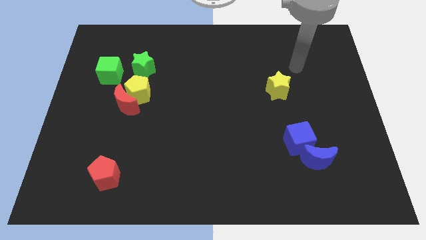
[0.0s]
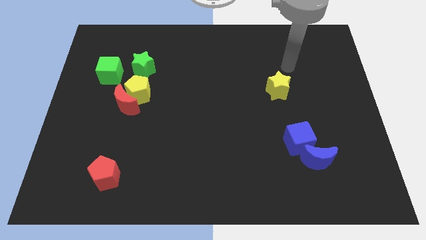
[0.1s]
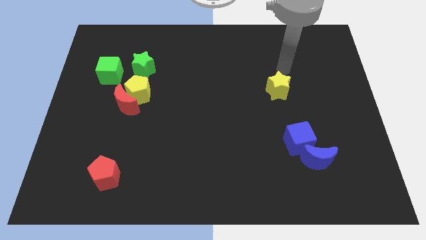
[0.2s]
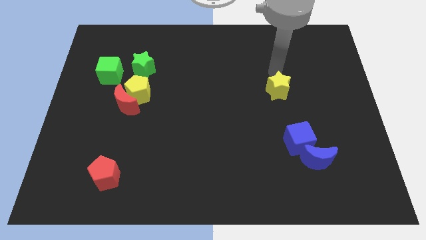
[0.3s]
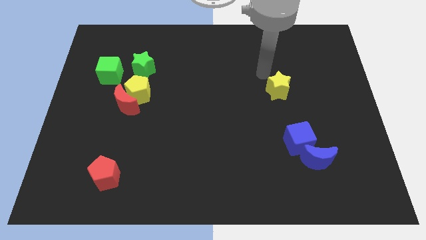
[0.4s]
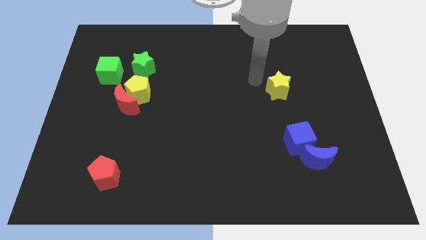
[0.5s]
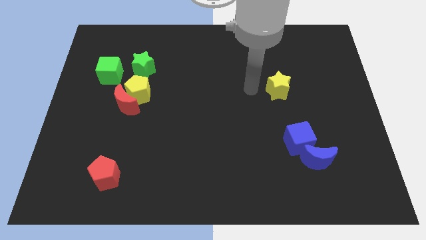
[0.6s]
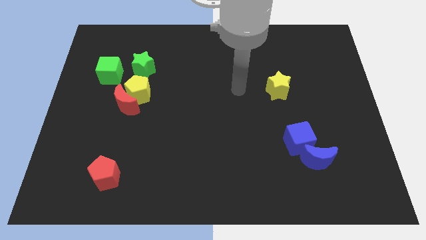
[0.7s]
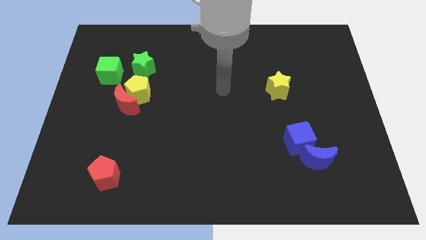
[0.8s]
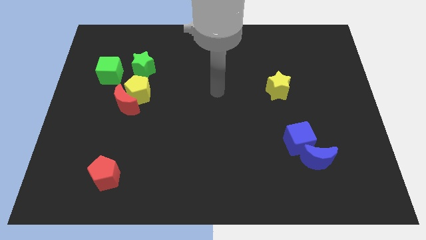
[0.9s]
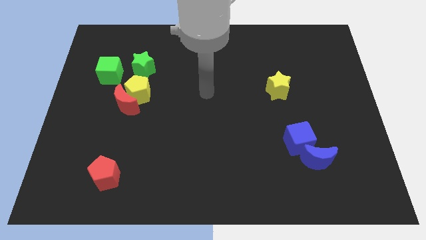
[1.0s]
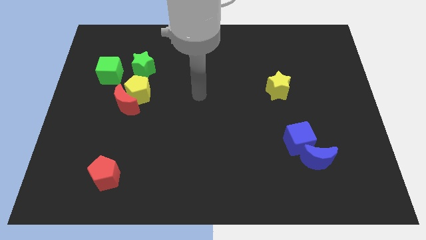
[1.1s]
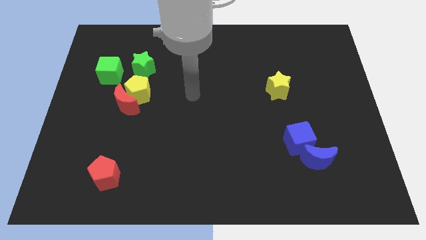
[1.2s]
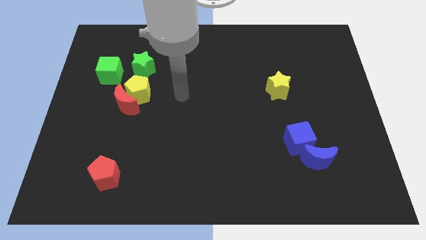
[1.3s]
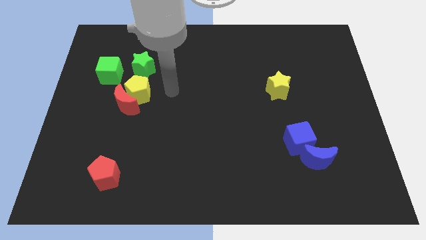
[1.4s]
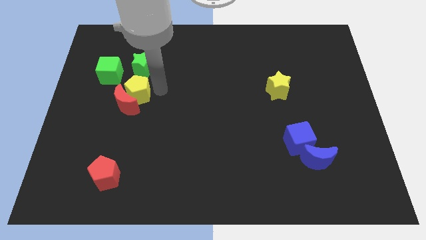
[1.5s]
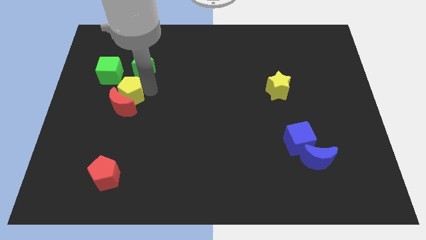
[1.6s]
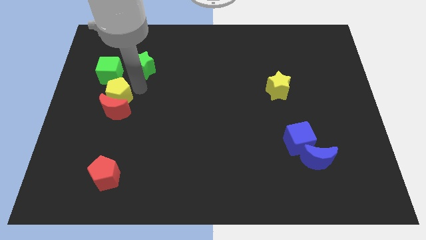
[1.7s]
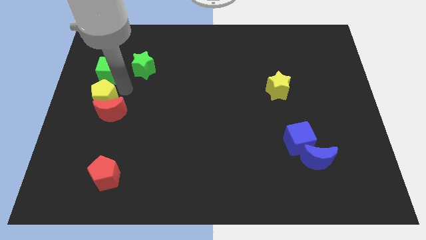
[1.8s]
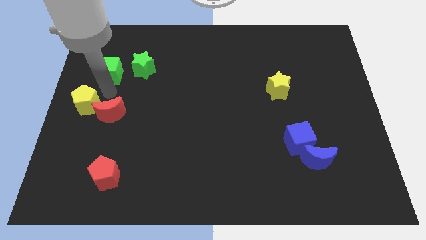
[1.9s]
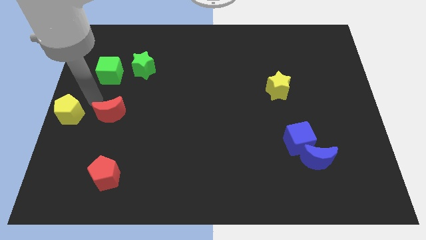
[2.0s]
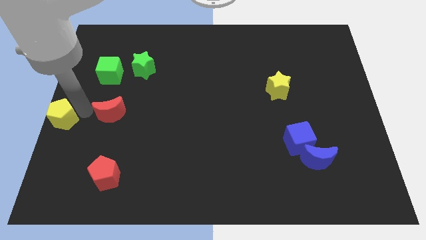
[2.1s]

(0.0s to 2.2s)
move the red moon away from the yellow pentagon

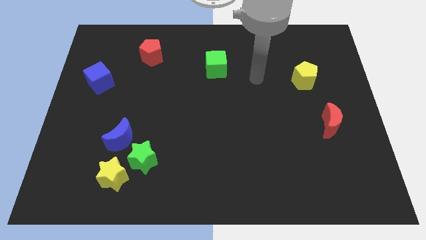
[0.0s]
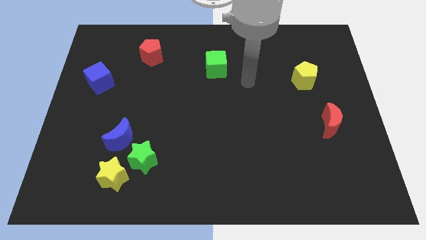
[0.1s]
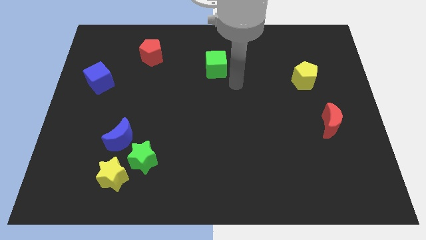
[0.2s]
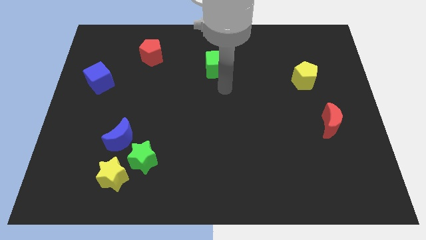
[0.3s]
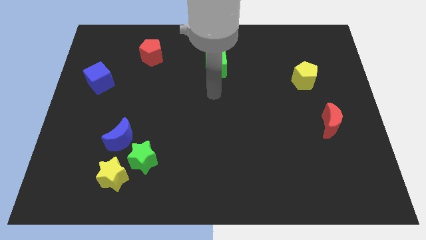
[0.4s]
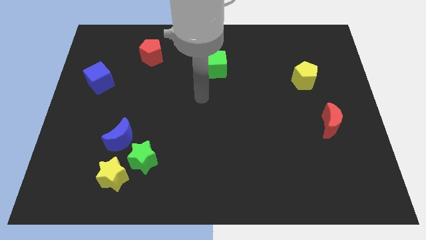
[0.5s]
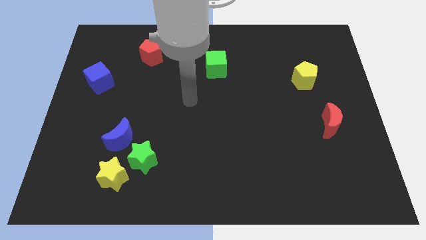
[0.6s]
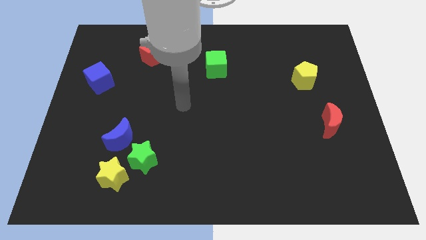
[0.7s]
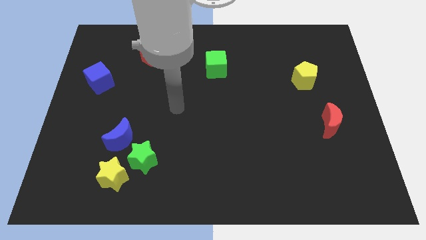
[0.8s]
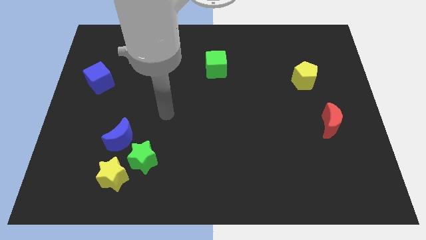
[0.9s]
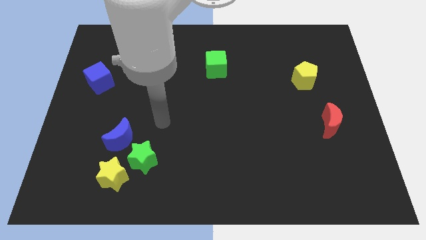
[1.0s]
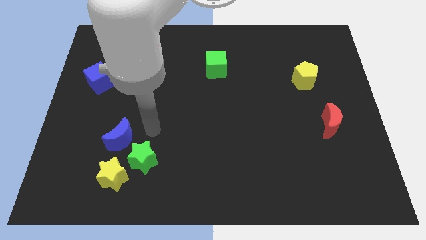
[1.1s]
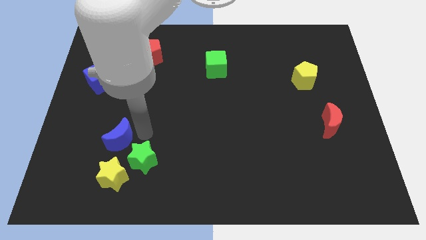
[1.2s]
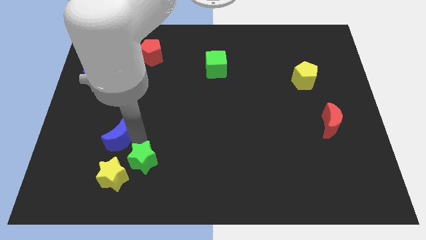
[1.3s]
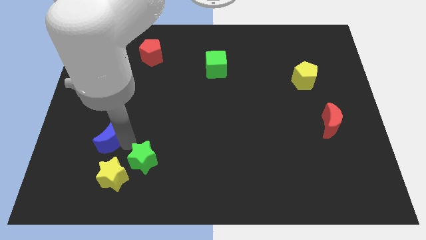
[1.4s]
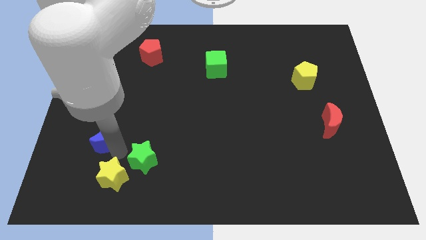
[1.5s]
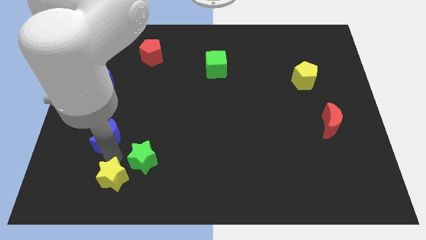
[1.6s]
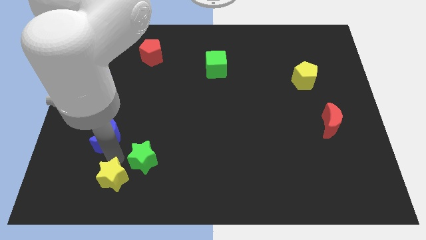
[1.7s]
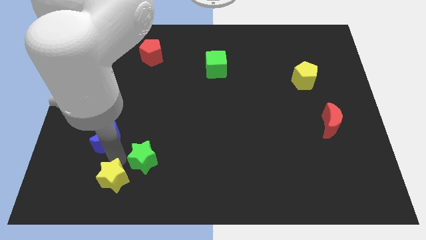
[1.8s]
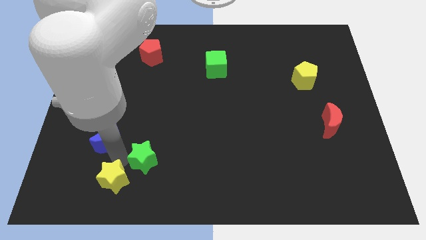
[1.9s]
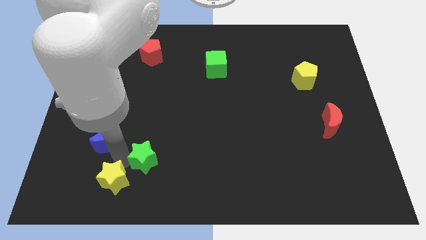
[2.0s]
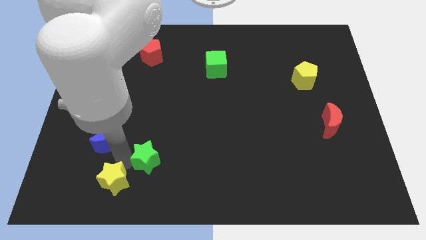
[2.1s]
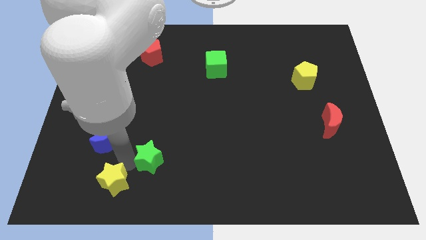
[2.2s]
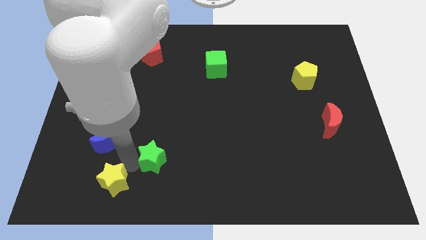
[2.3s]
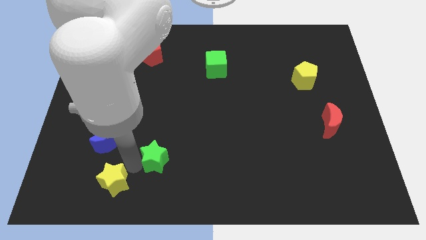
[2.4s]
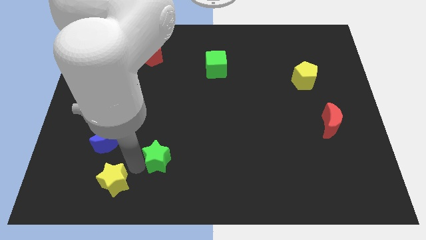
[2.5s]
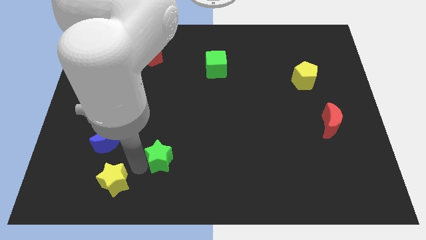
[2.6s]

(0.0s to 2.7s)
move the green star away from the yellow star and blue moon

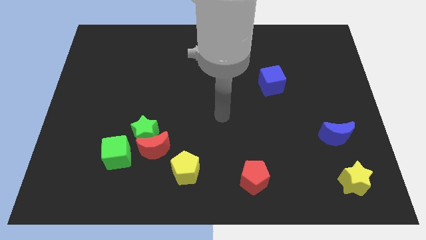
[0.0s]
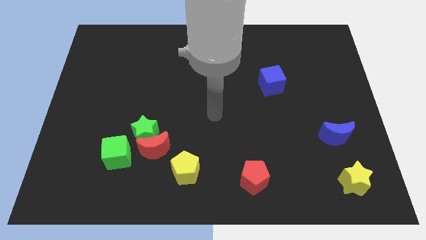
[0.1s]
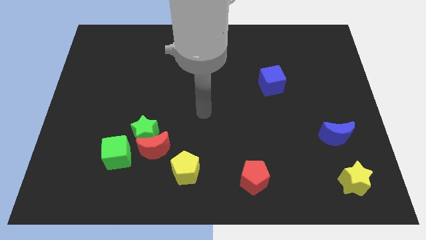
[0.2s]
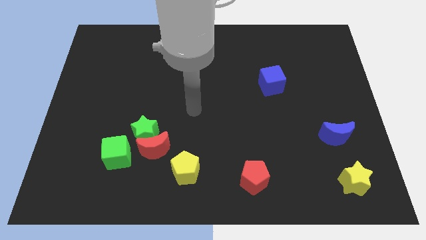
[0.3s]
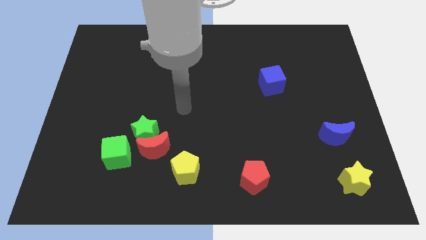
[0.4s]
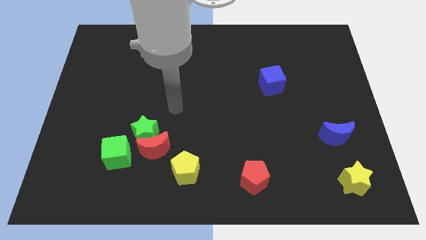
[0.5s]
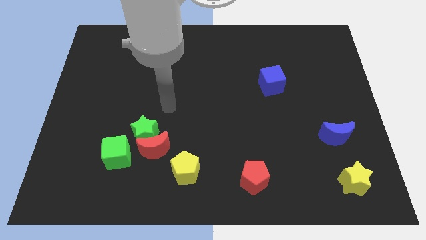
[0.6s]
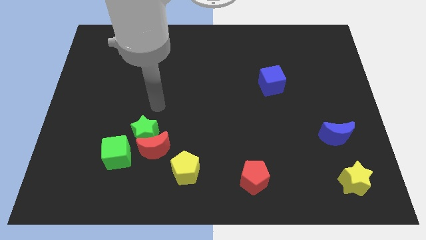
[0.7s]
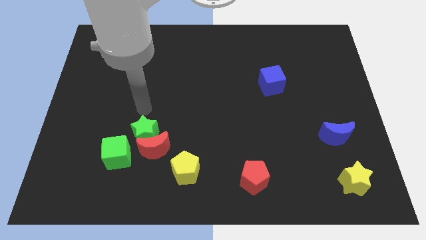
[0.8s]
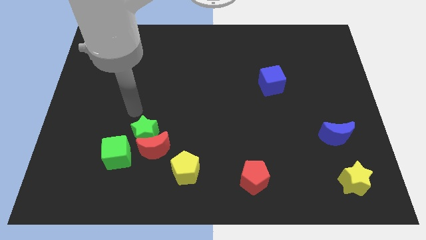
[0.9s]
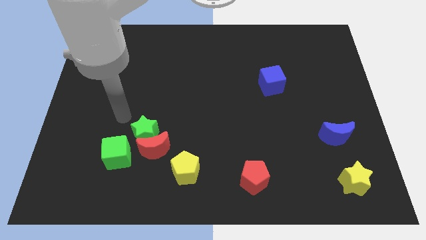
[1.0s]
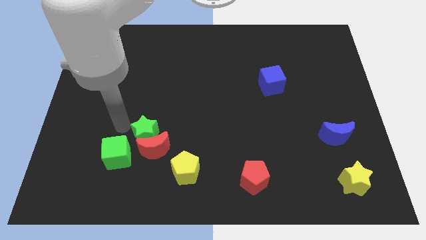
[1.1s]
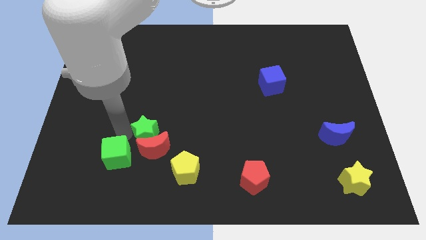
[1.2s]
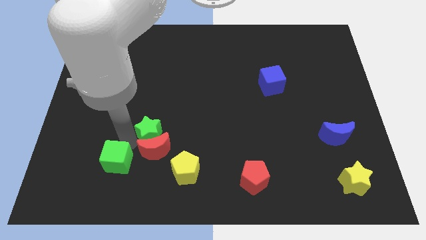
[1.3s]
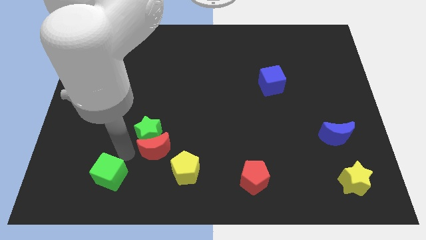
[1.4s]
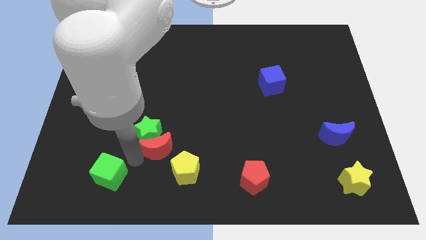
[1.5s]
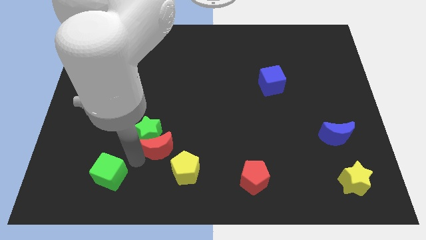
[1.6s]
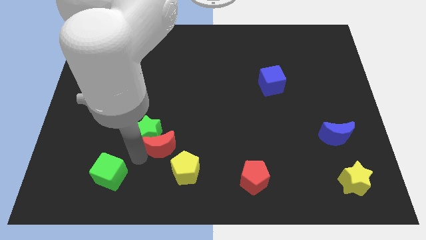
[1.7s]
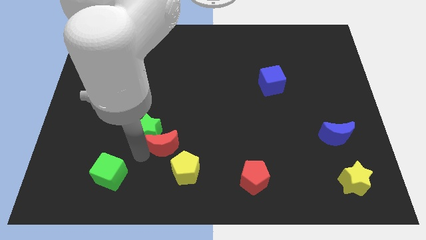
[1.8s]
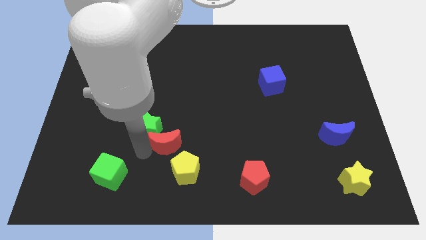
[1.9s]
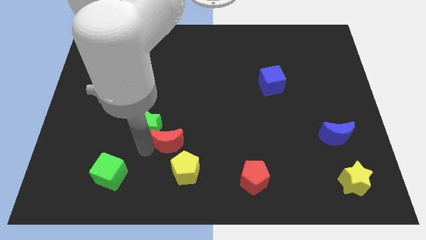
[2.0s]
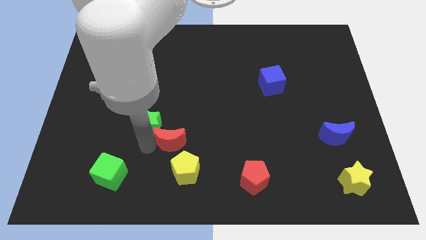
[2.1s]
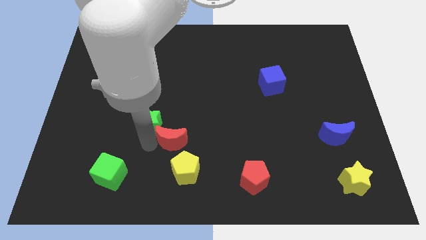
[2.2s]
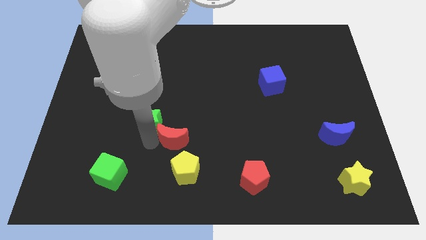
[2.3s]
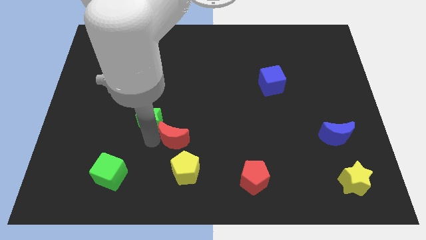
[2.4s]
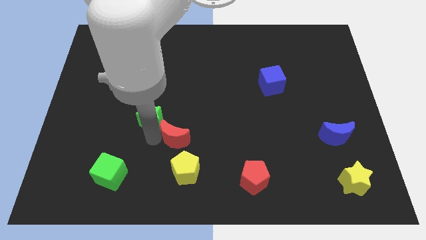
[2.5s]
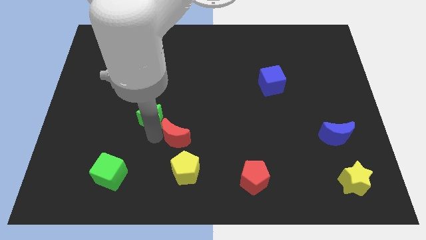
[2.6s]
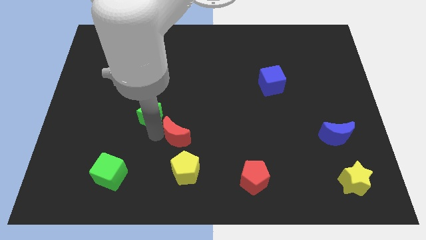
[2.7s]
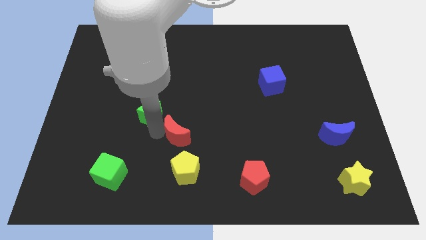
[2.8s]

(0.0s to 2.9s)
move the green star away from the red moon and green cube

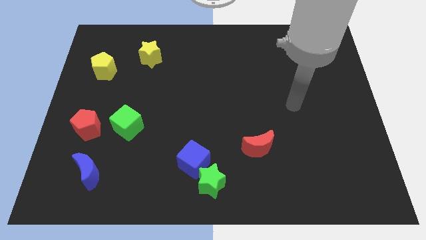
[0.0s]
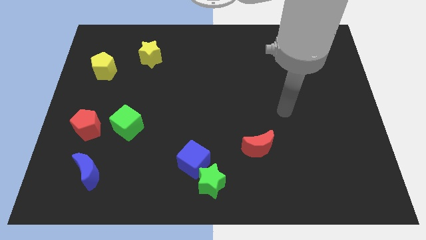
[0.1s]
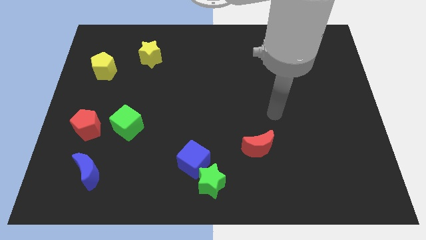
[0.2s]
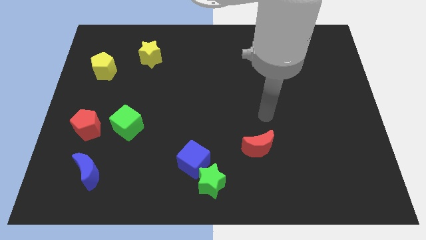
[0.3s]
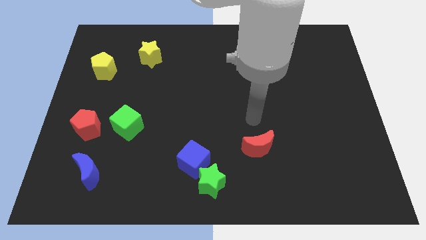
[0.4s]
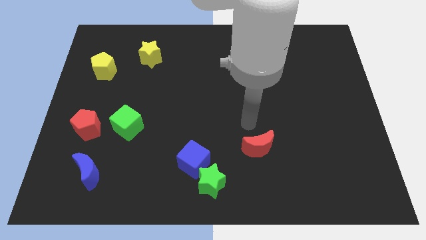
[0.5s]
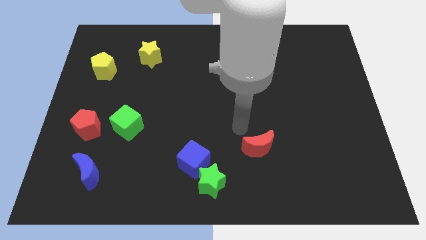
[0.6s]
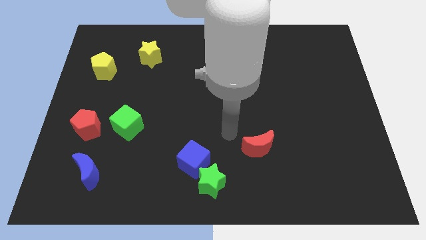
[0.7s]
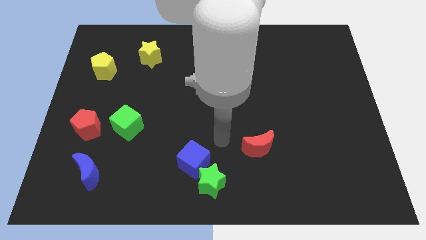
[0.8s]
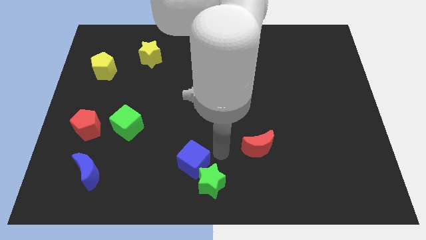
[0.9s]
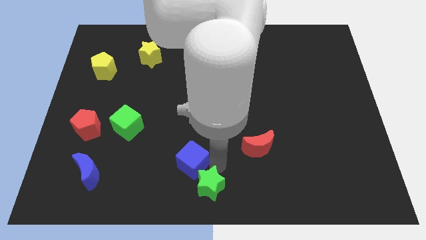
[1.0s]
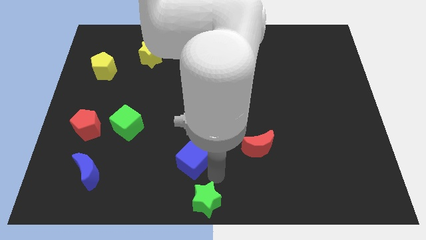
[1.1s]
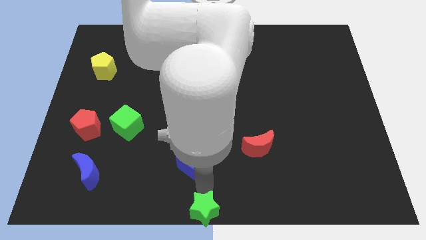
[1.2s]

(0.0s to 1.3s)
separate the blue cube from the green star

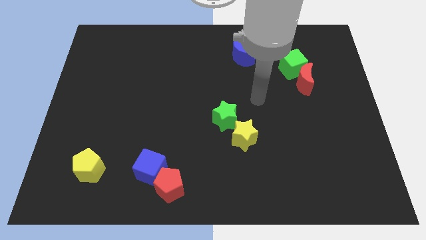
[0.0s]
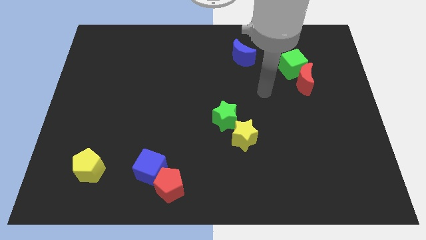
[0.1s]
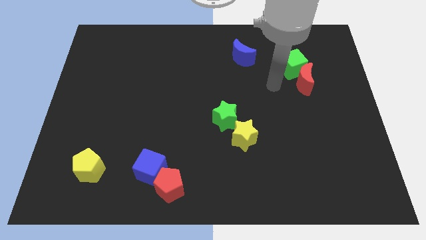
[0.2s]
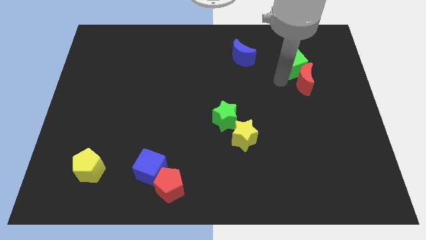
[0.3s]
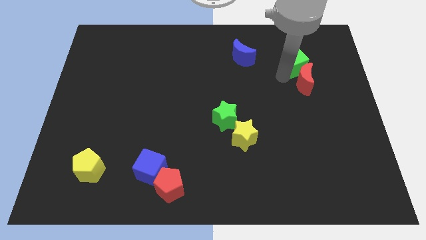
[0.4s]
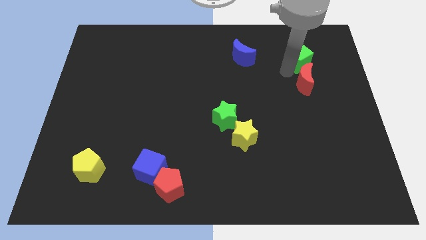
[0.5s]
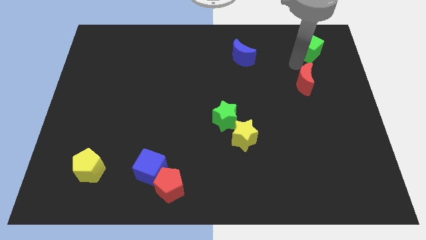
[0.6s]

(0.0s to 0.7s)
separate the red moon from the green cube
